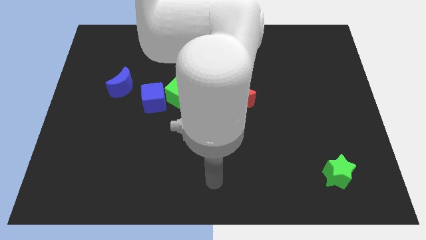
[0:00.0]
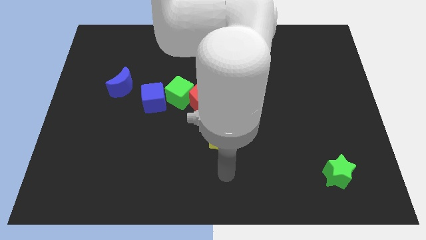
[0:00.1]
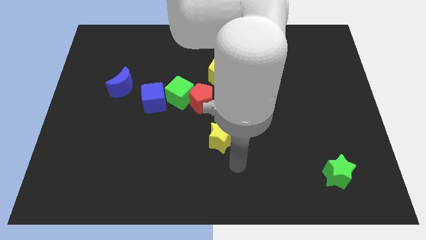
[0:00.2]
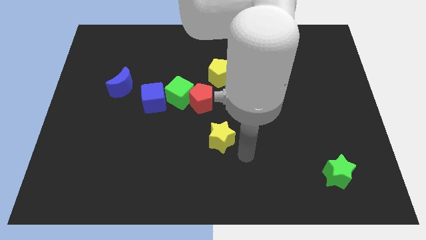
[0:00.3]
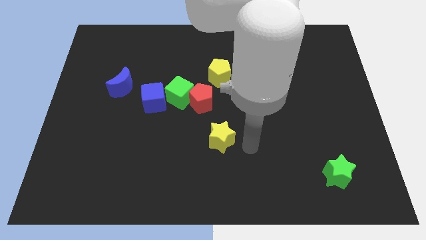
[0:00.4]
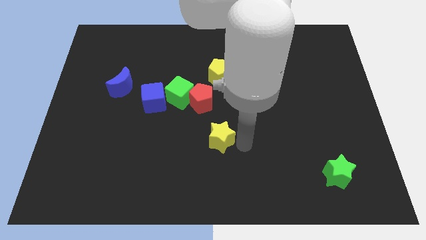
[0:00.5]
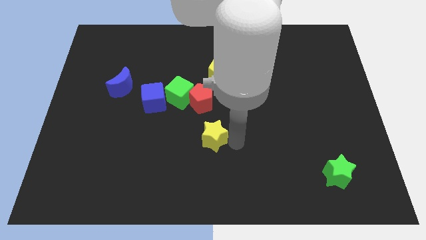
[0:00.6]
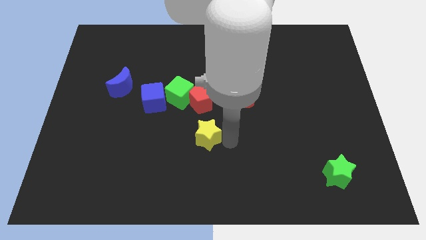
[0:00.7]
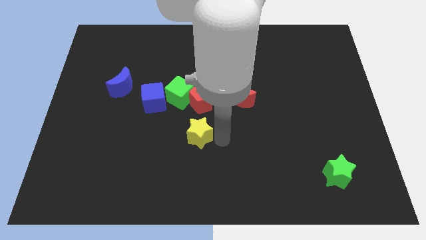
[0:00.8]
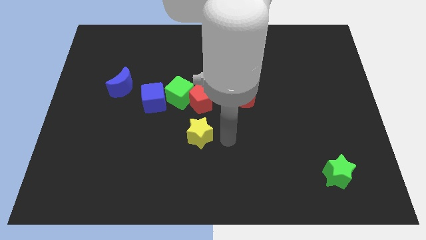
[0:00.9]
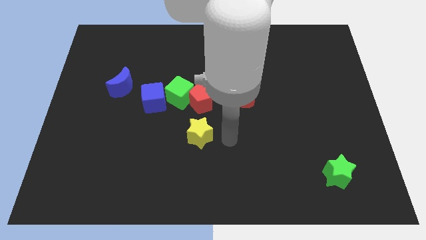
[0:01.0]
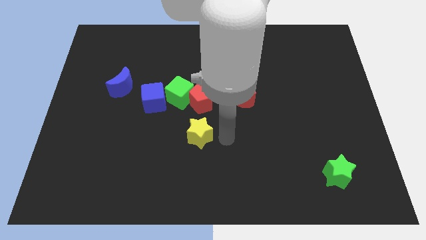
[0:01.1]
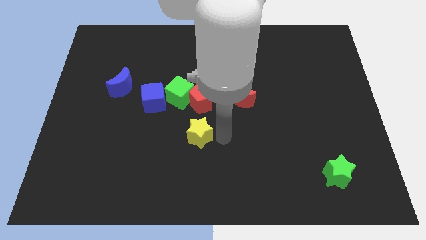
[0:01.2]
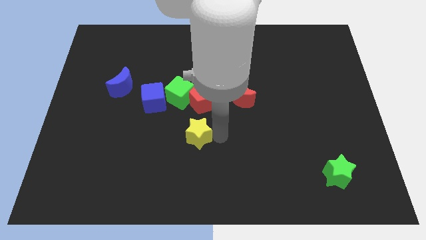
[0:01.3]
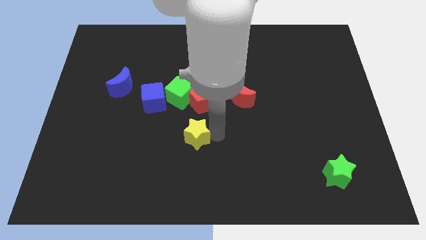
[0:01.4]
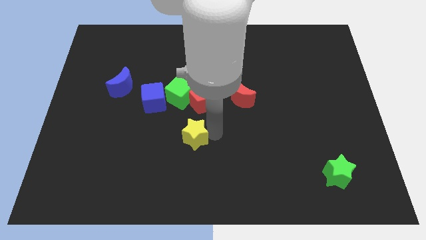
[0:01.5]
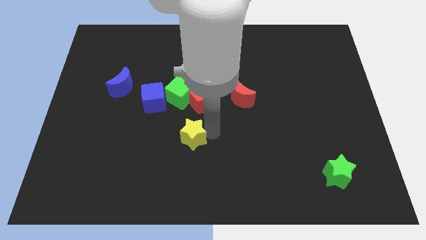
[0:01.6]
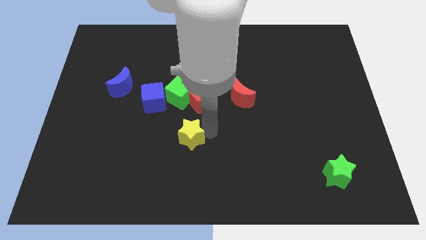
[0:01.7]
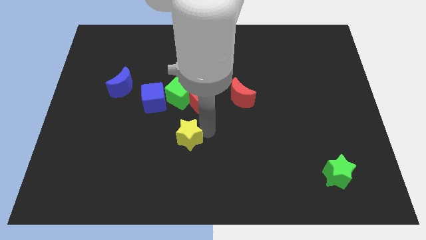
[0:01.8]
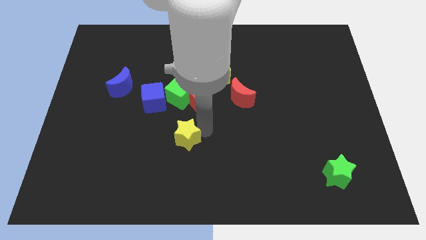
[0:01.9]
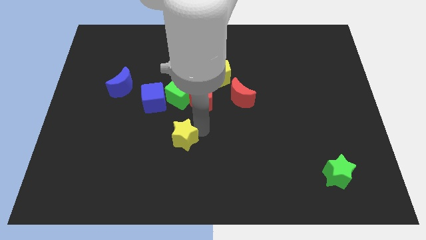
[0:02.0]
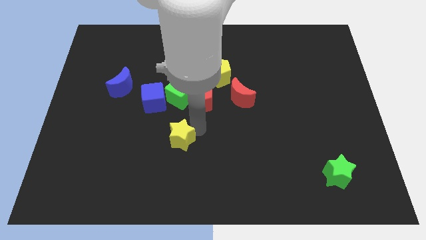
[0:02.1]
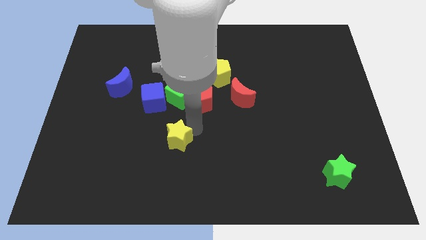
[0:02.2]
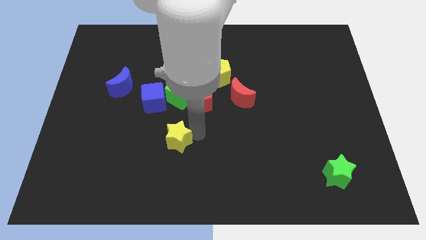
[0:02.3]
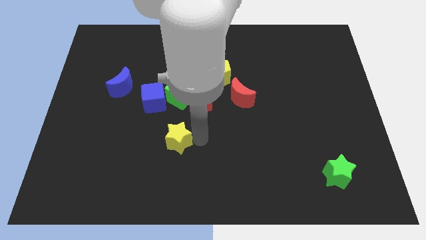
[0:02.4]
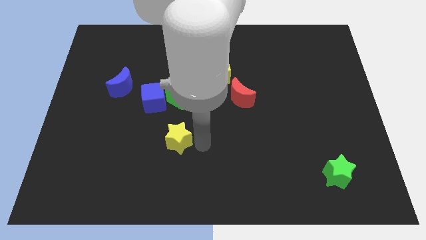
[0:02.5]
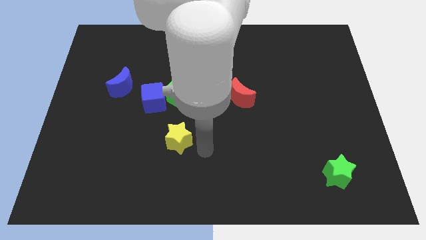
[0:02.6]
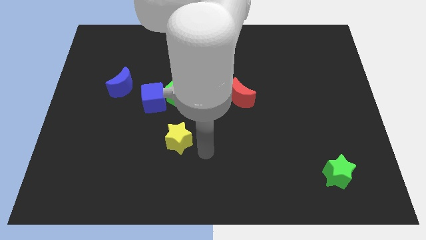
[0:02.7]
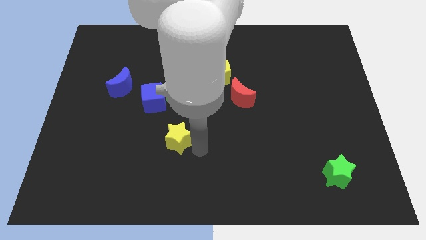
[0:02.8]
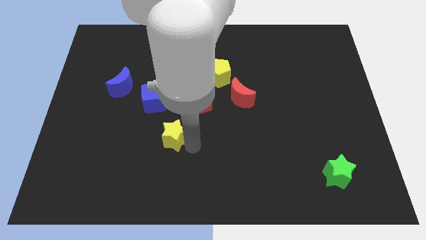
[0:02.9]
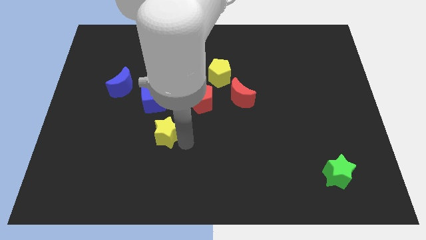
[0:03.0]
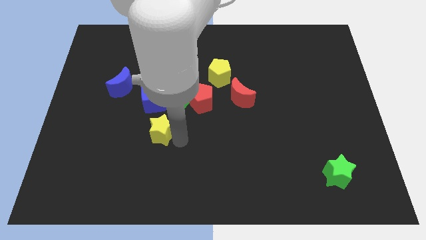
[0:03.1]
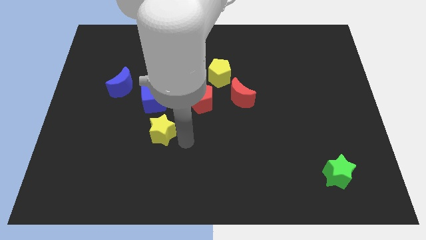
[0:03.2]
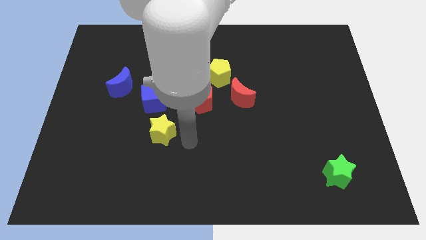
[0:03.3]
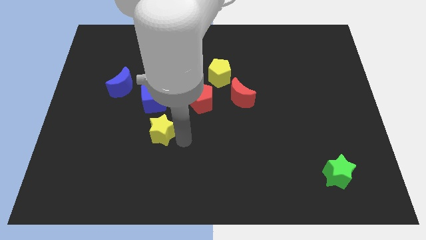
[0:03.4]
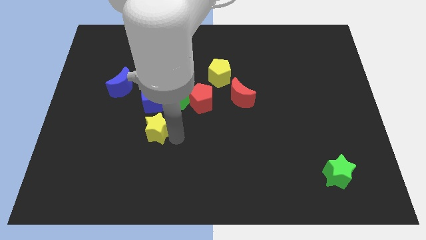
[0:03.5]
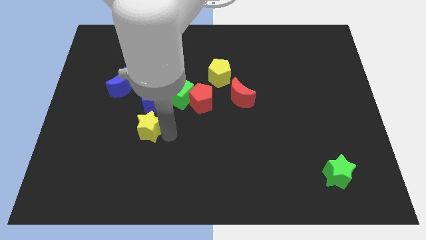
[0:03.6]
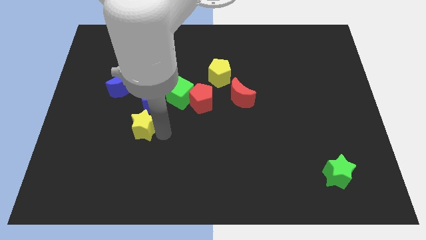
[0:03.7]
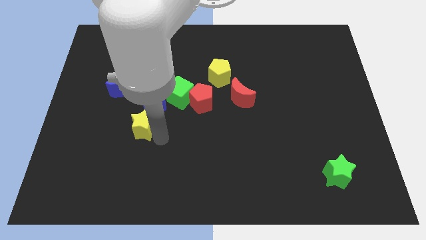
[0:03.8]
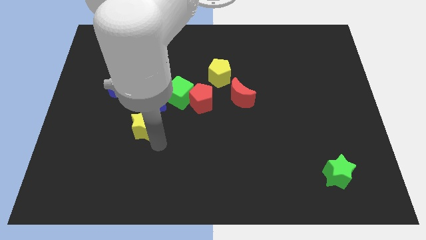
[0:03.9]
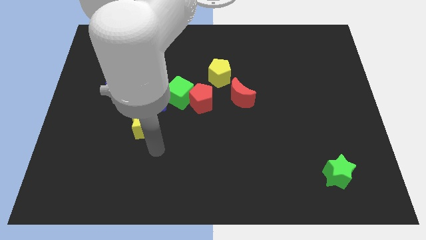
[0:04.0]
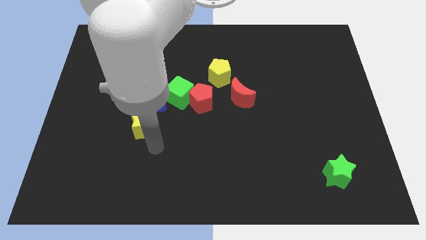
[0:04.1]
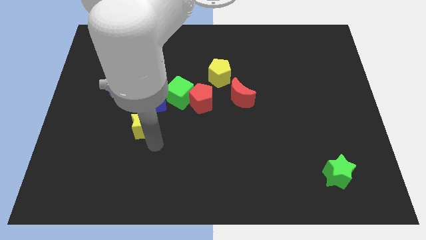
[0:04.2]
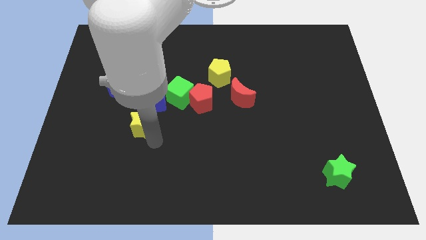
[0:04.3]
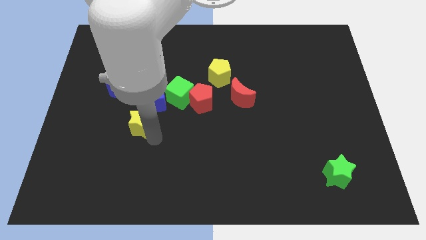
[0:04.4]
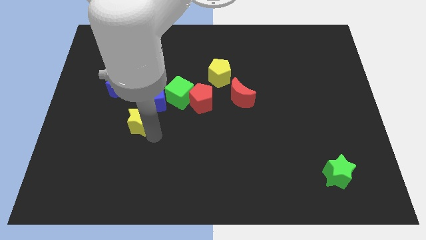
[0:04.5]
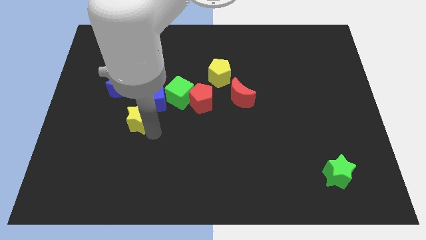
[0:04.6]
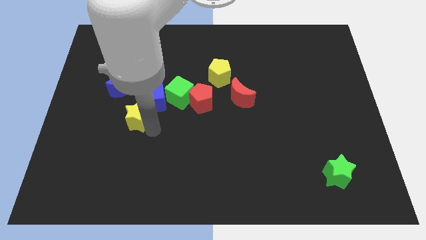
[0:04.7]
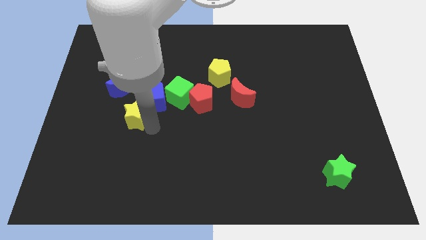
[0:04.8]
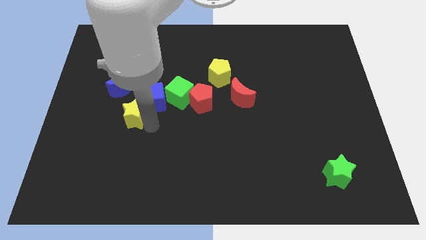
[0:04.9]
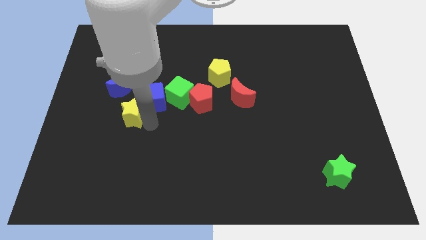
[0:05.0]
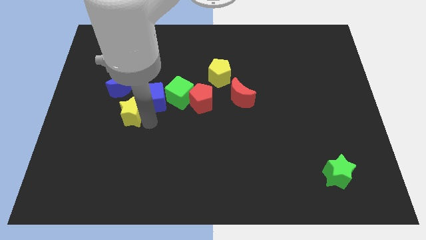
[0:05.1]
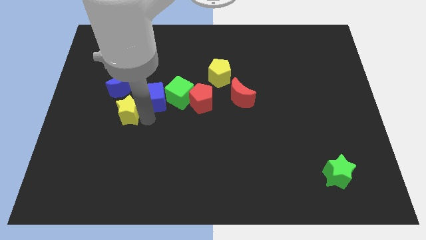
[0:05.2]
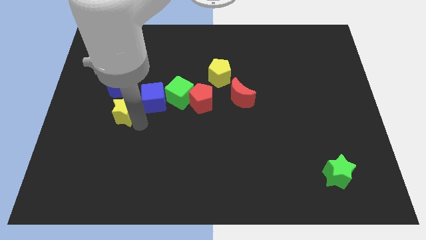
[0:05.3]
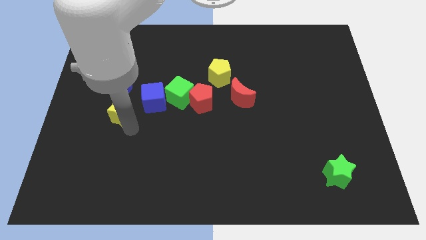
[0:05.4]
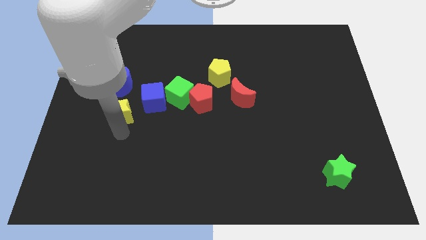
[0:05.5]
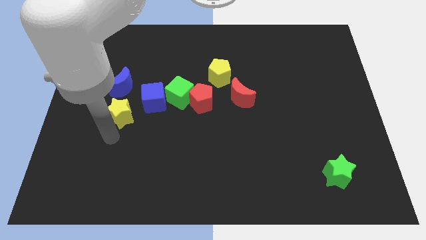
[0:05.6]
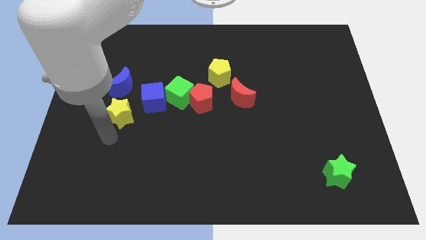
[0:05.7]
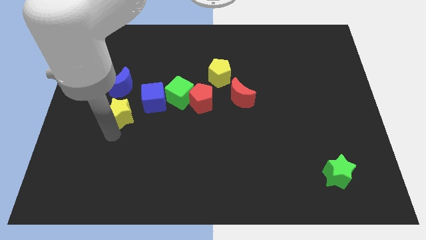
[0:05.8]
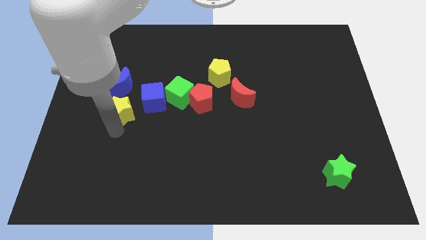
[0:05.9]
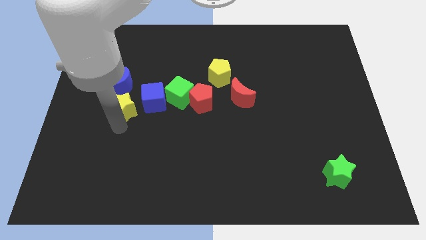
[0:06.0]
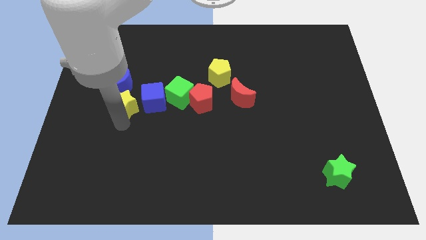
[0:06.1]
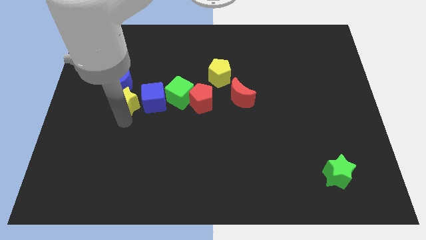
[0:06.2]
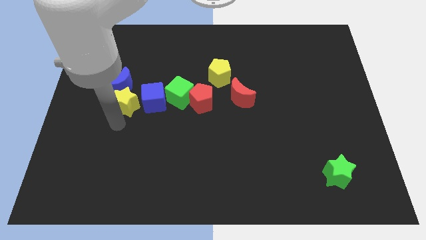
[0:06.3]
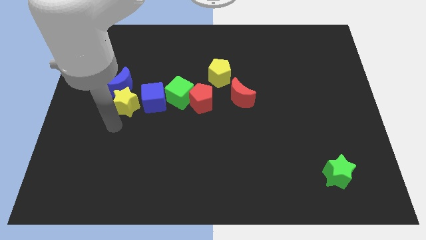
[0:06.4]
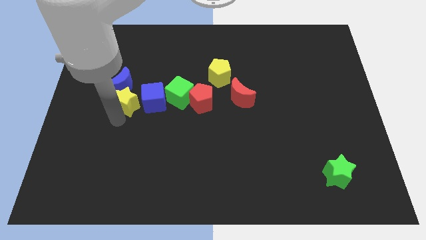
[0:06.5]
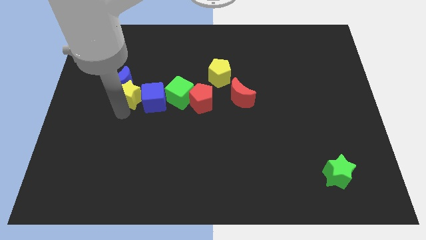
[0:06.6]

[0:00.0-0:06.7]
push the yellow star up and left

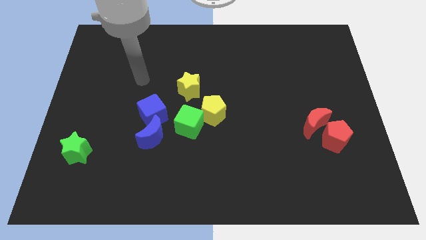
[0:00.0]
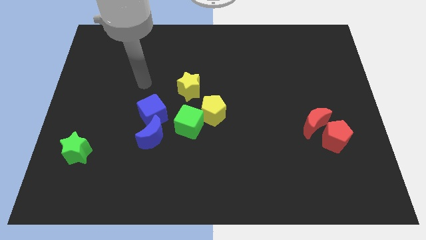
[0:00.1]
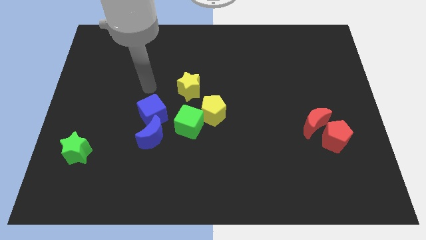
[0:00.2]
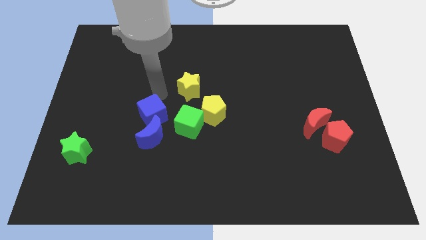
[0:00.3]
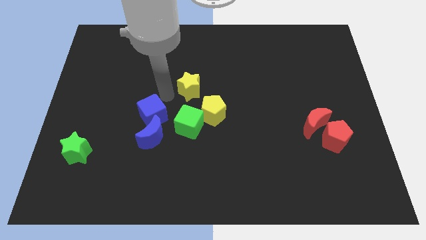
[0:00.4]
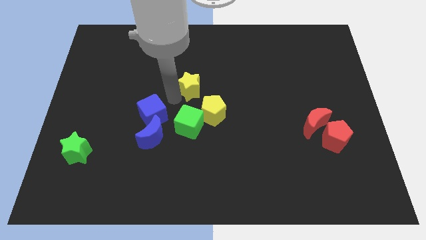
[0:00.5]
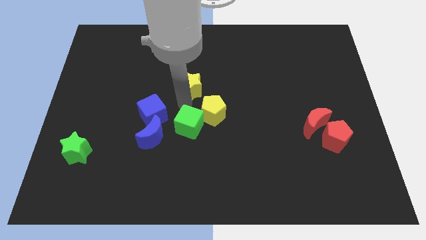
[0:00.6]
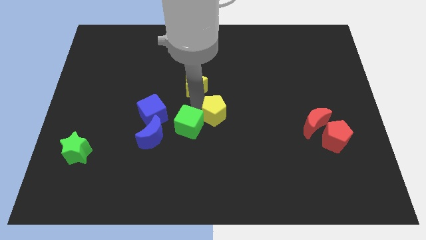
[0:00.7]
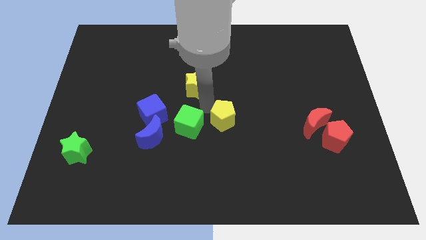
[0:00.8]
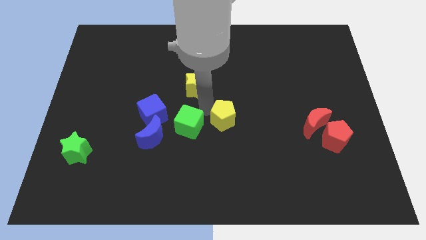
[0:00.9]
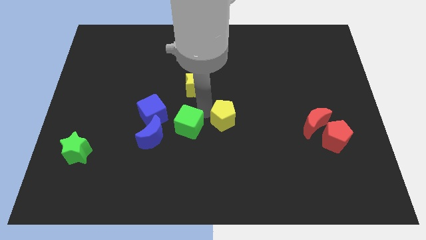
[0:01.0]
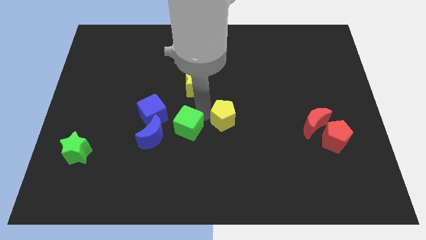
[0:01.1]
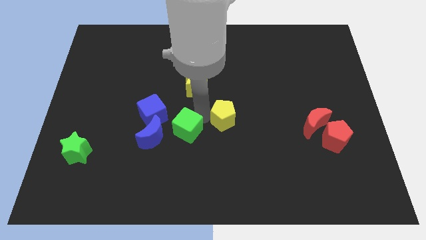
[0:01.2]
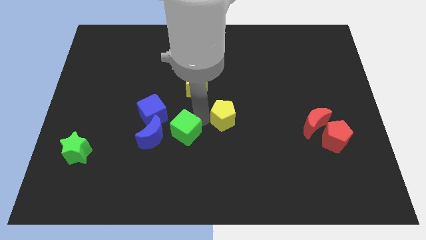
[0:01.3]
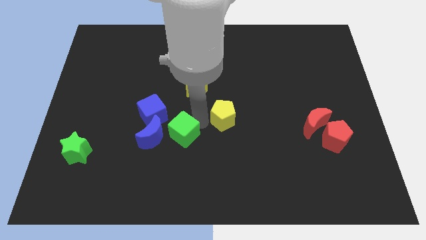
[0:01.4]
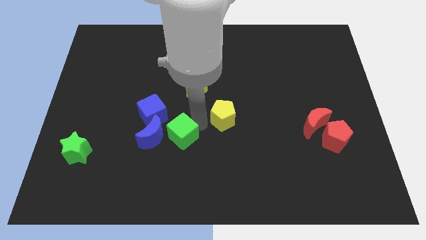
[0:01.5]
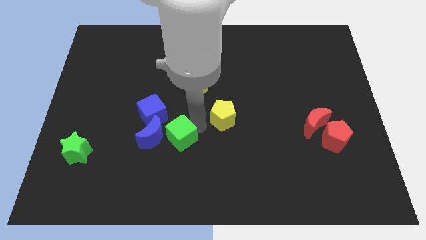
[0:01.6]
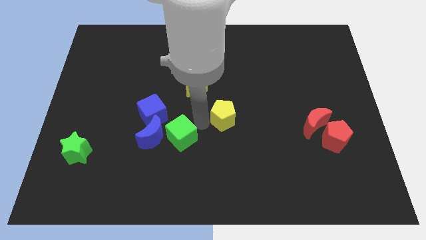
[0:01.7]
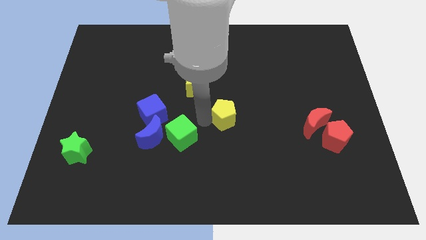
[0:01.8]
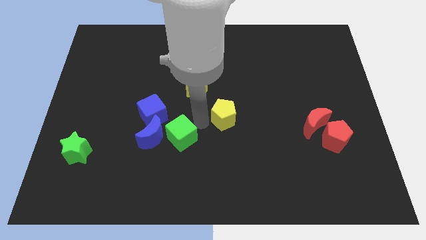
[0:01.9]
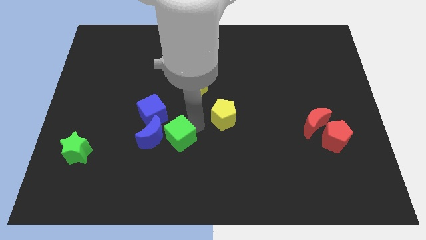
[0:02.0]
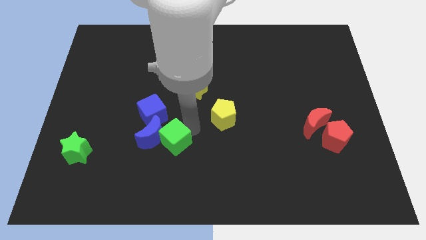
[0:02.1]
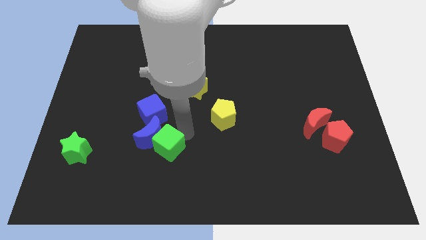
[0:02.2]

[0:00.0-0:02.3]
push the green cube down and then to the left a little
